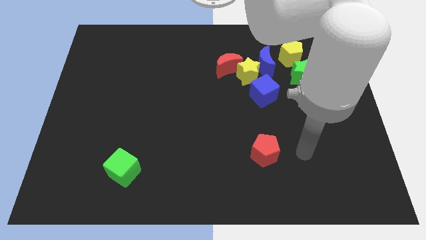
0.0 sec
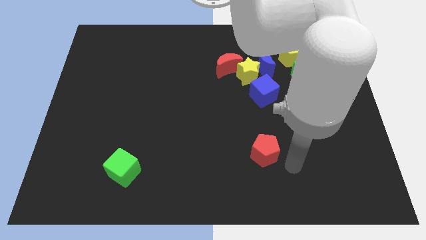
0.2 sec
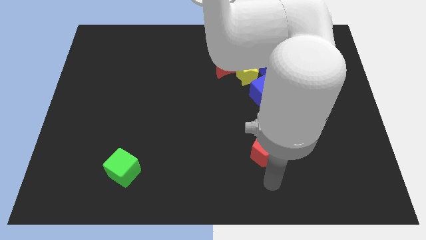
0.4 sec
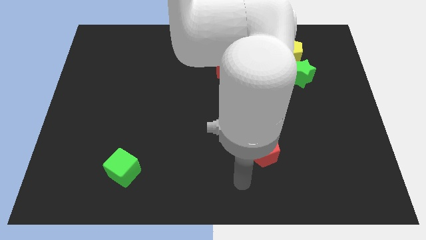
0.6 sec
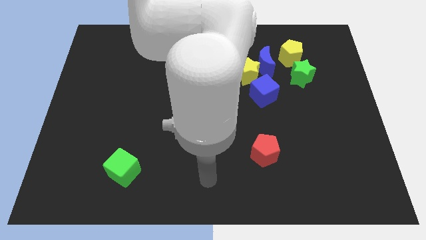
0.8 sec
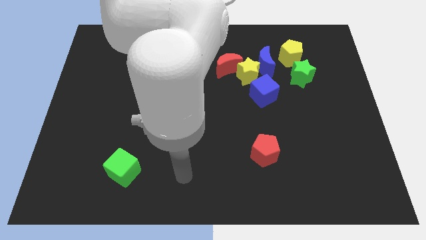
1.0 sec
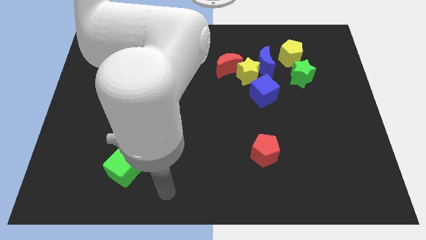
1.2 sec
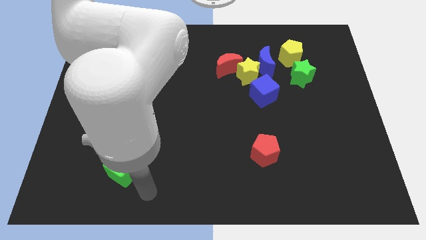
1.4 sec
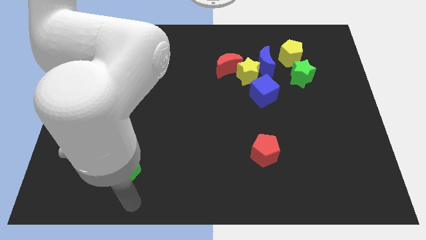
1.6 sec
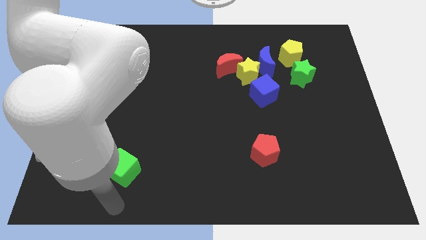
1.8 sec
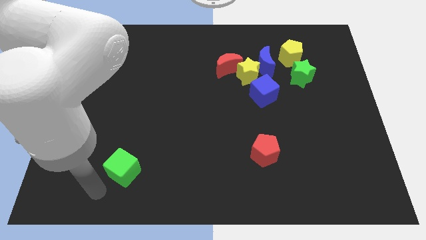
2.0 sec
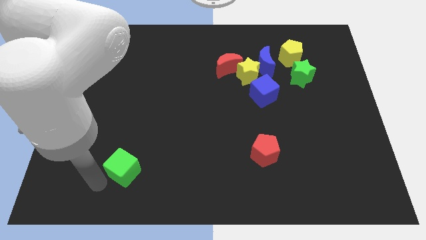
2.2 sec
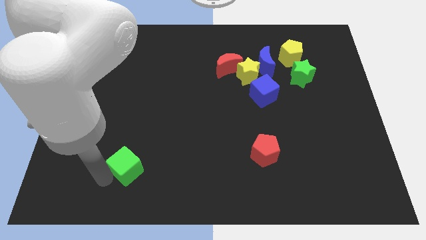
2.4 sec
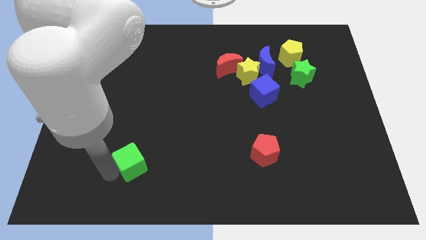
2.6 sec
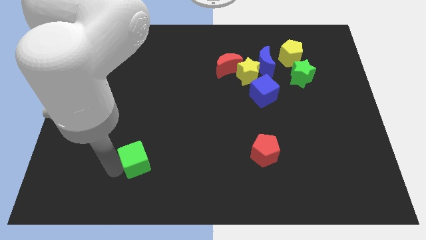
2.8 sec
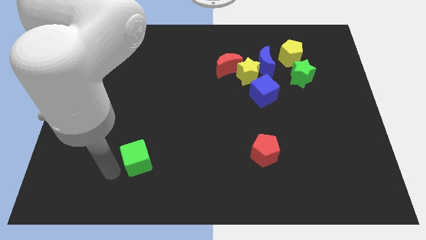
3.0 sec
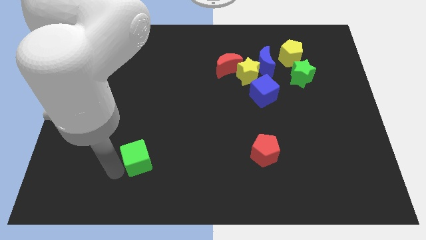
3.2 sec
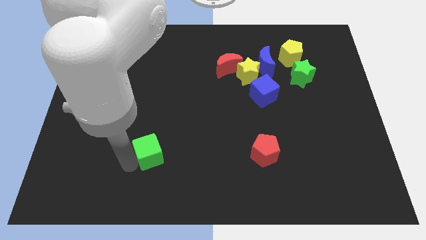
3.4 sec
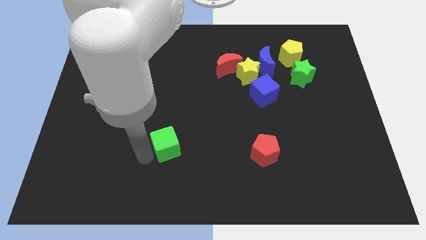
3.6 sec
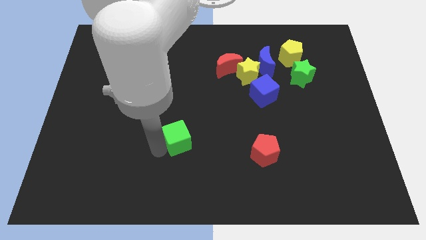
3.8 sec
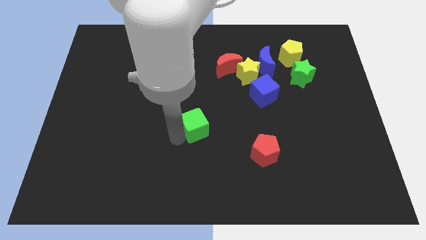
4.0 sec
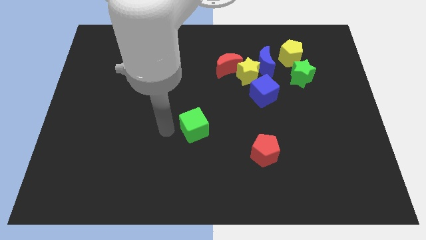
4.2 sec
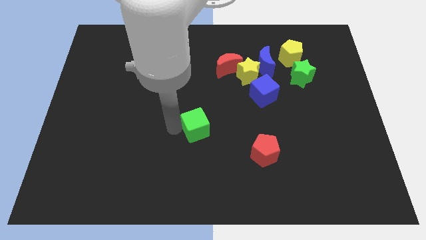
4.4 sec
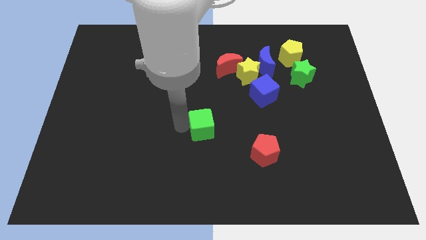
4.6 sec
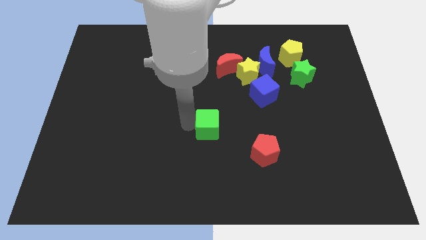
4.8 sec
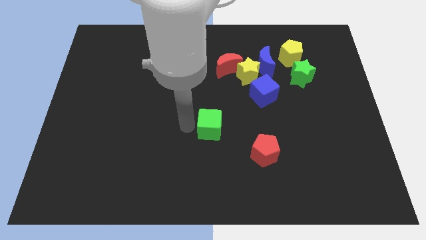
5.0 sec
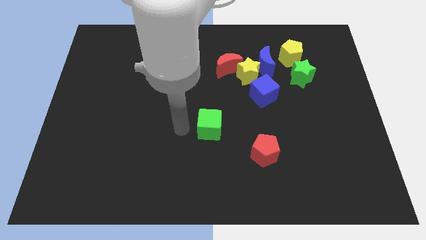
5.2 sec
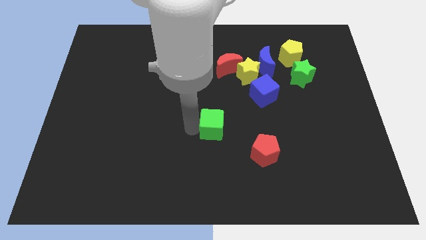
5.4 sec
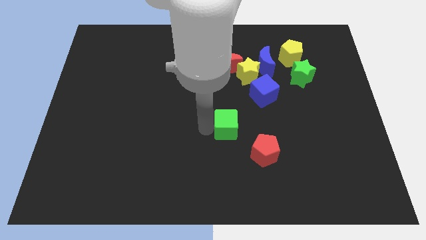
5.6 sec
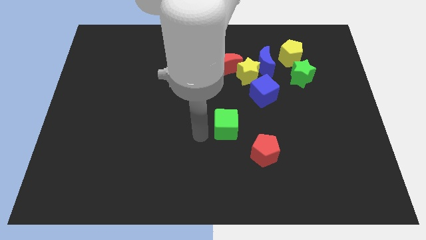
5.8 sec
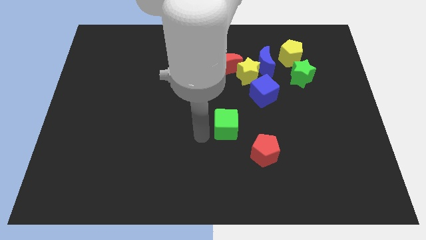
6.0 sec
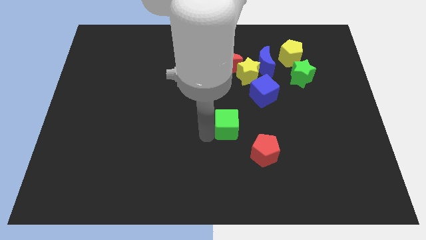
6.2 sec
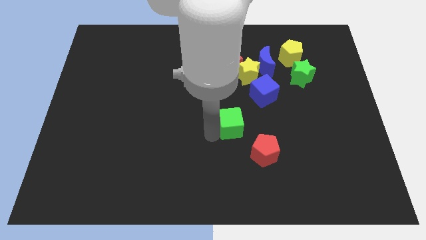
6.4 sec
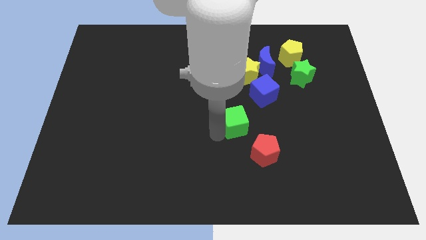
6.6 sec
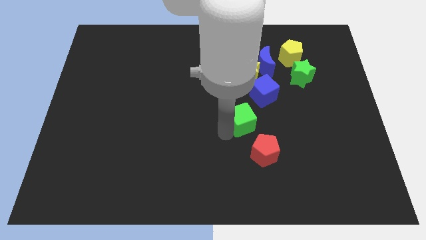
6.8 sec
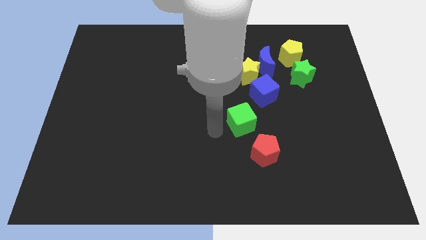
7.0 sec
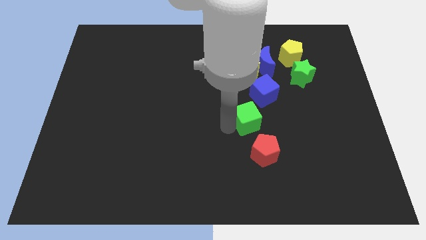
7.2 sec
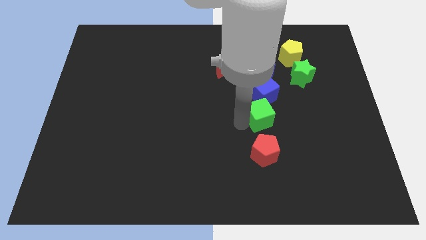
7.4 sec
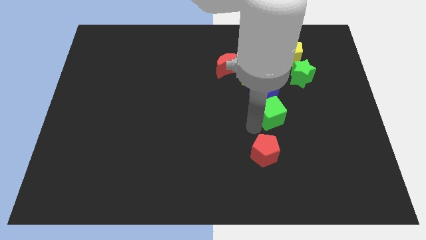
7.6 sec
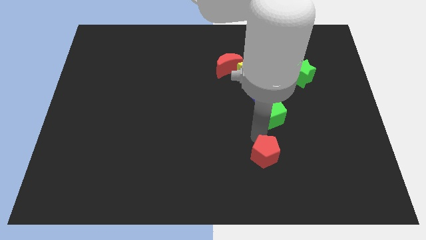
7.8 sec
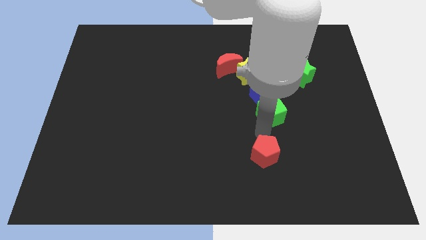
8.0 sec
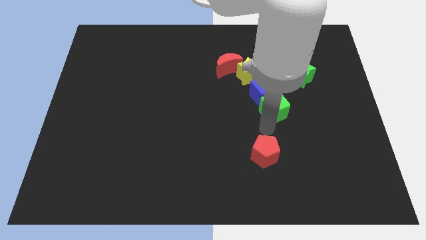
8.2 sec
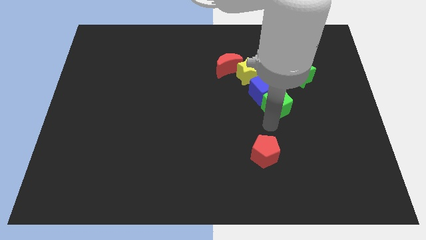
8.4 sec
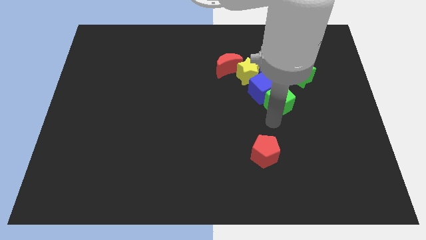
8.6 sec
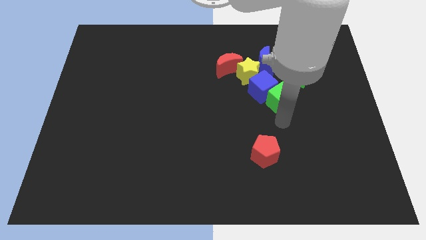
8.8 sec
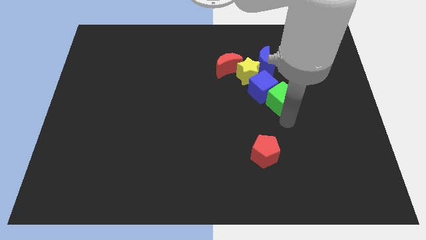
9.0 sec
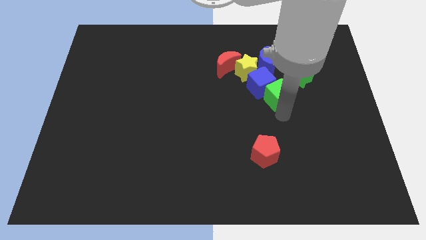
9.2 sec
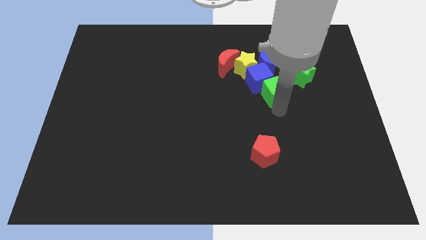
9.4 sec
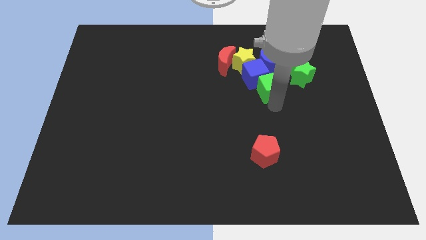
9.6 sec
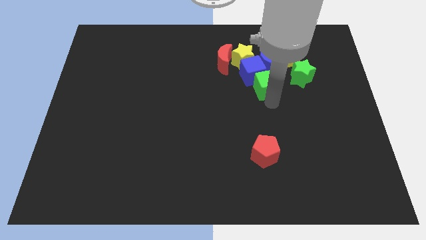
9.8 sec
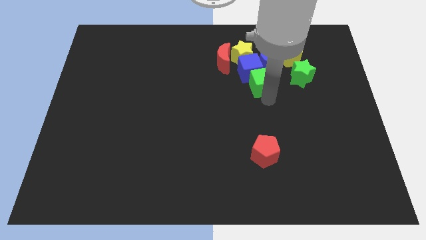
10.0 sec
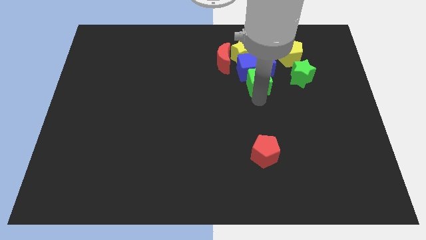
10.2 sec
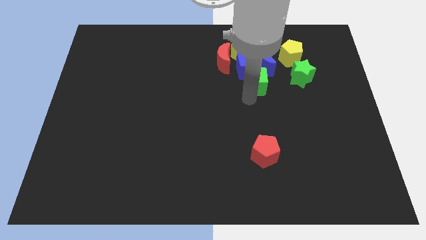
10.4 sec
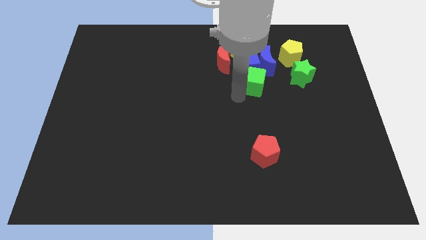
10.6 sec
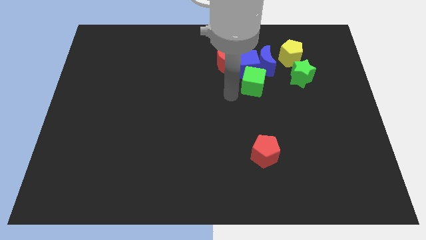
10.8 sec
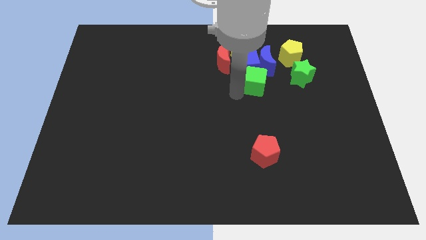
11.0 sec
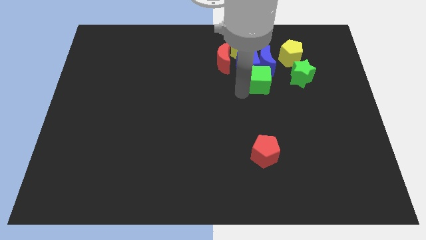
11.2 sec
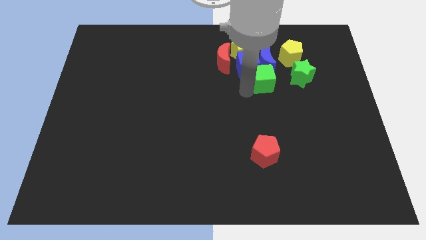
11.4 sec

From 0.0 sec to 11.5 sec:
push the green cube close to the blue moon

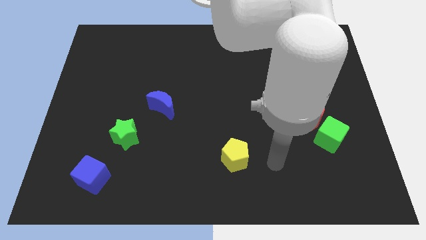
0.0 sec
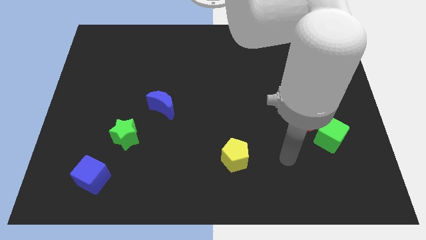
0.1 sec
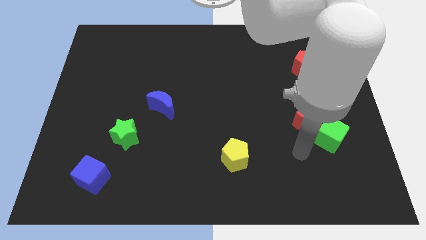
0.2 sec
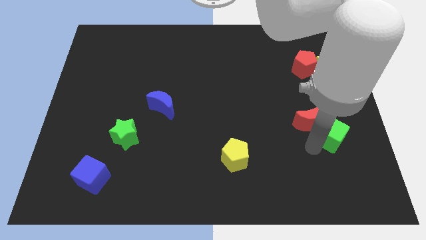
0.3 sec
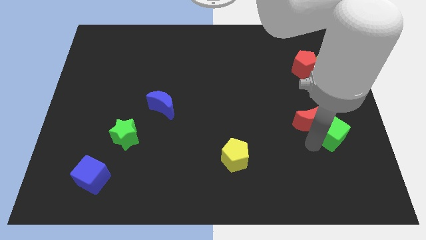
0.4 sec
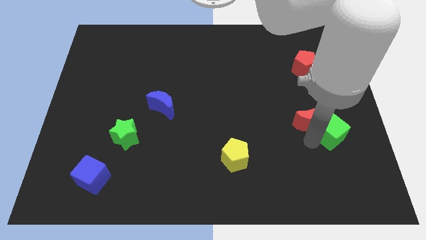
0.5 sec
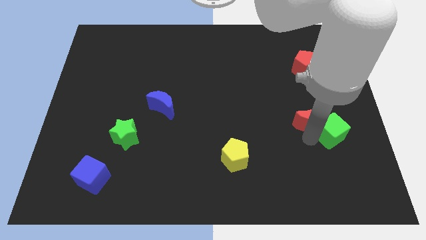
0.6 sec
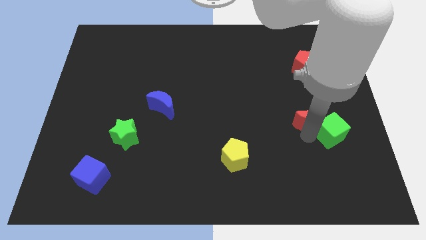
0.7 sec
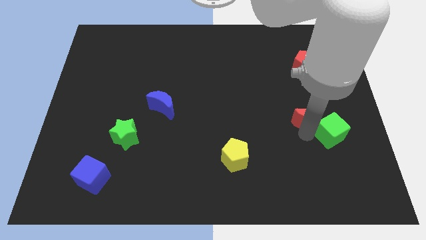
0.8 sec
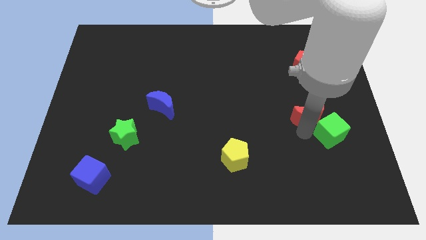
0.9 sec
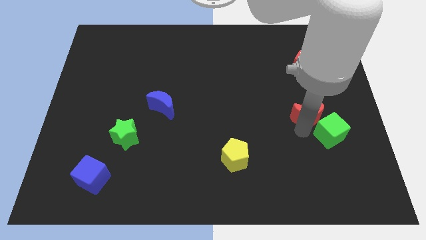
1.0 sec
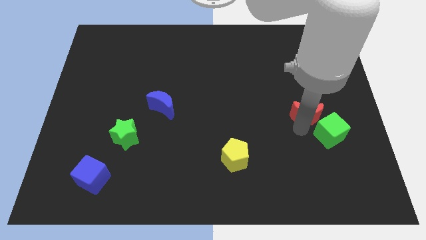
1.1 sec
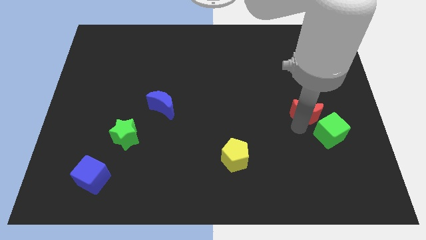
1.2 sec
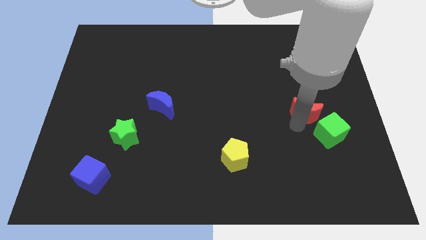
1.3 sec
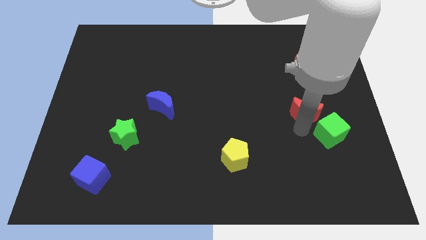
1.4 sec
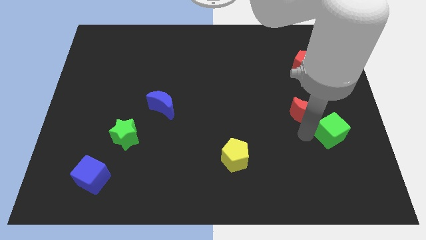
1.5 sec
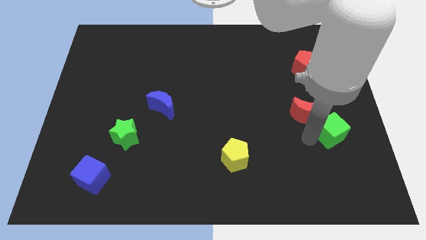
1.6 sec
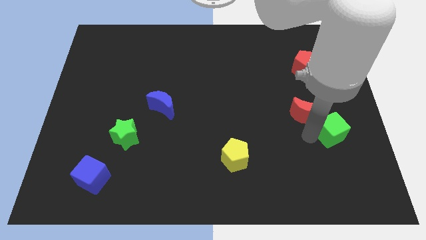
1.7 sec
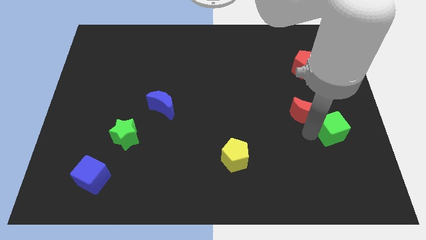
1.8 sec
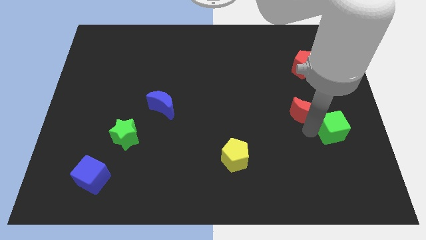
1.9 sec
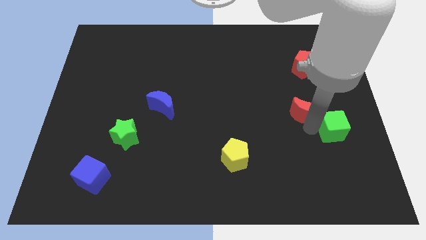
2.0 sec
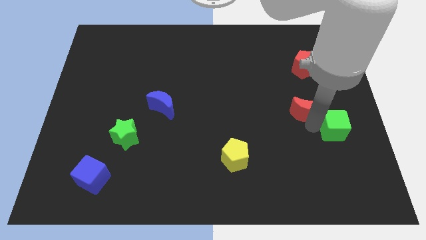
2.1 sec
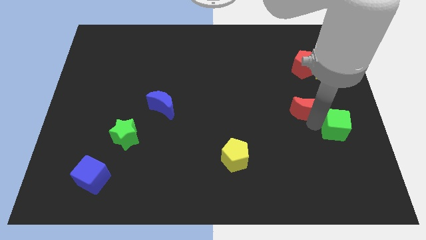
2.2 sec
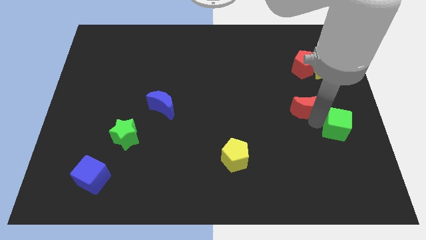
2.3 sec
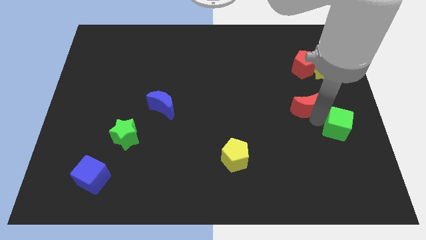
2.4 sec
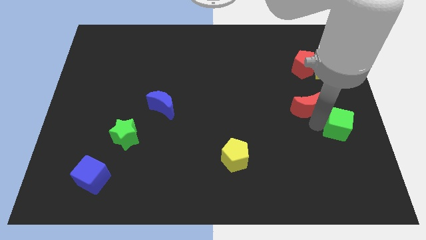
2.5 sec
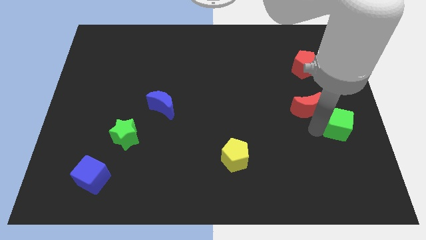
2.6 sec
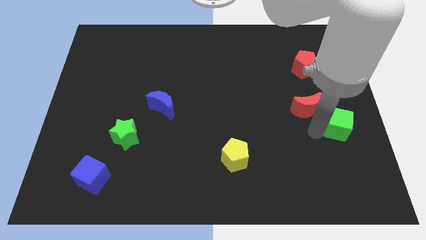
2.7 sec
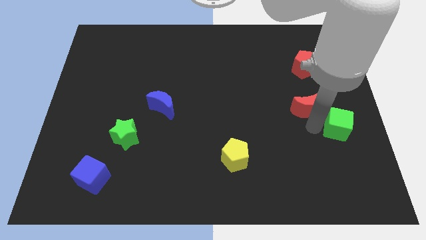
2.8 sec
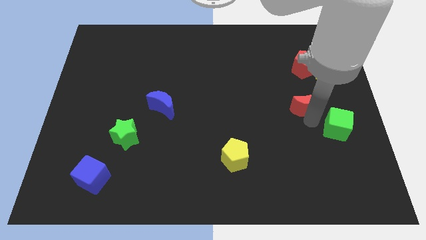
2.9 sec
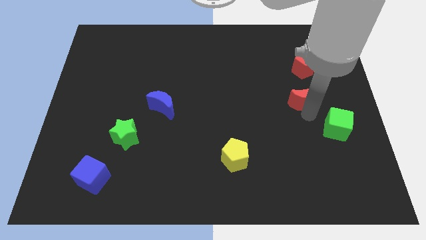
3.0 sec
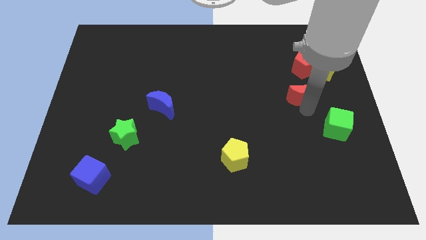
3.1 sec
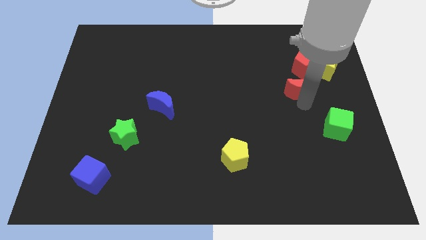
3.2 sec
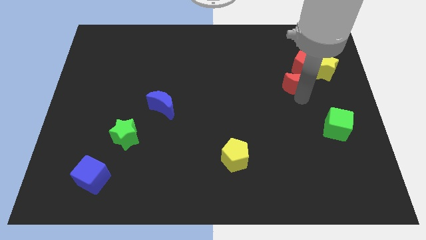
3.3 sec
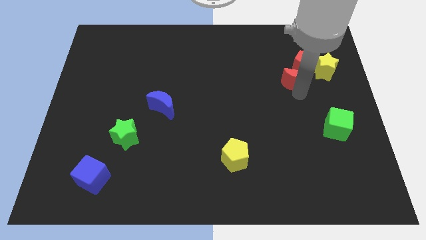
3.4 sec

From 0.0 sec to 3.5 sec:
move the red moon to the red pentagon
